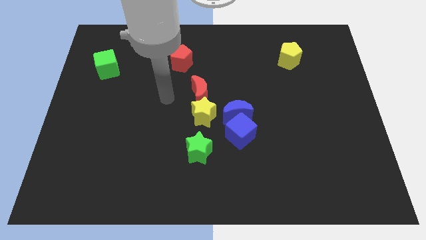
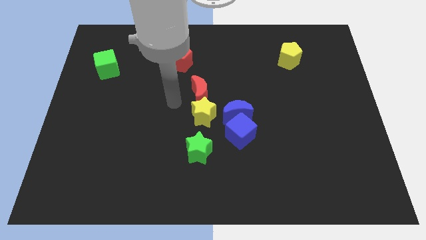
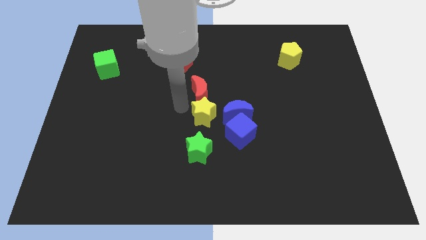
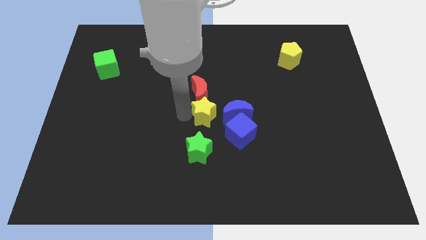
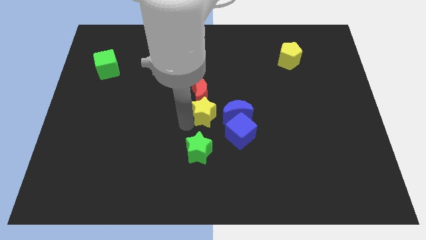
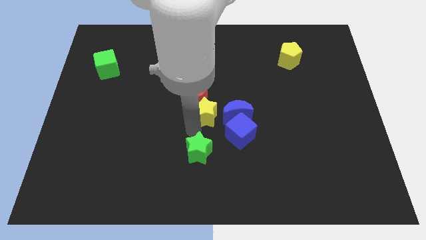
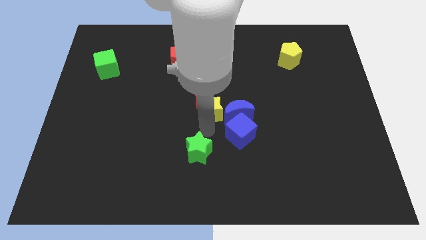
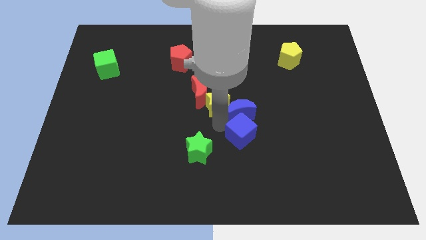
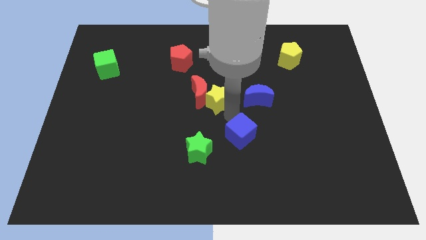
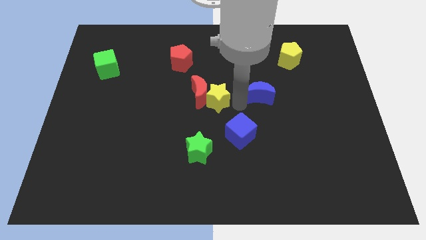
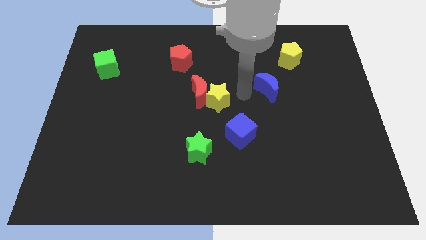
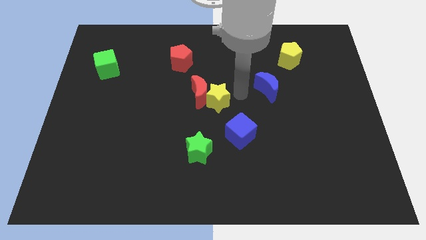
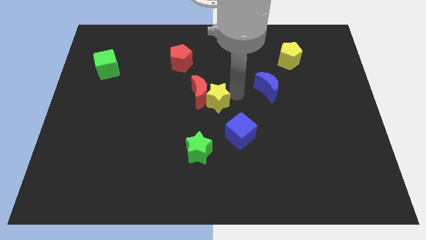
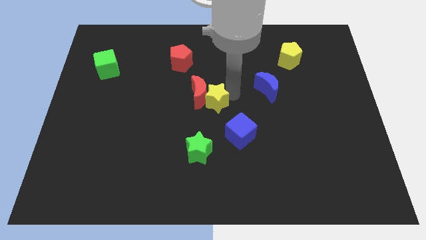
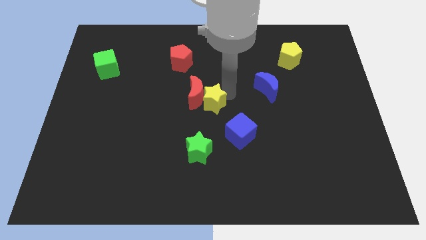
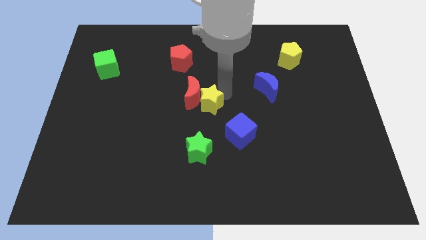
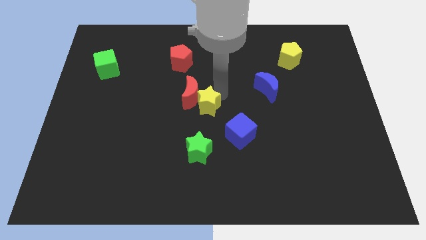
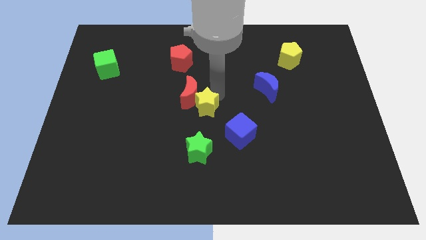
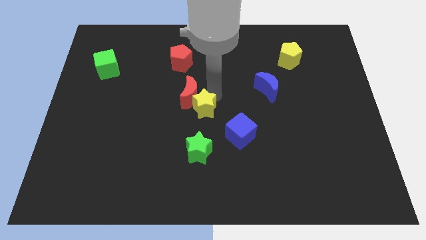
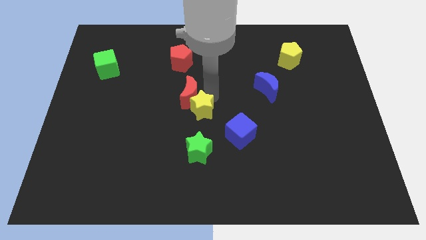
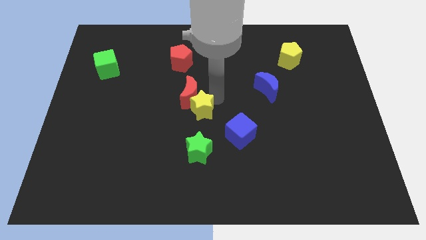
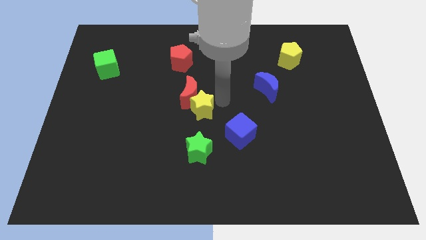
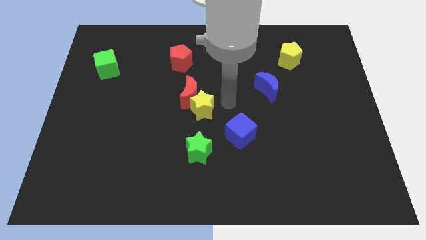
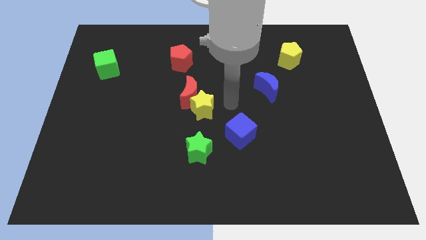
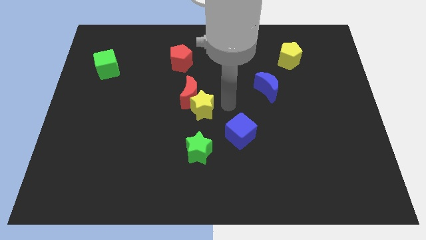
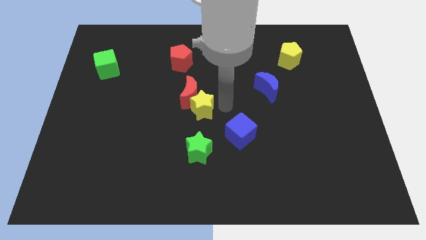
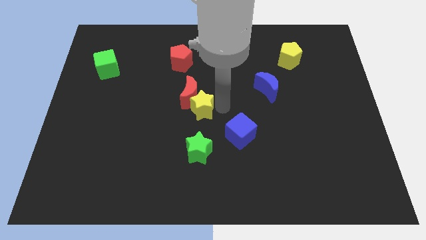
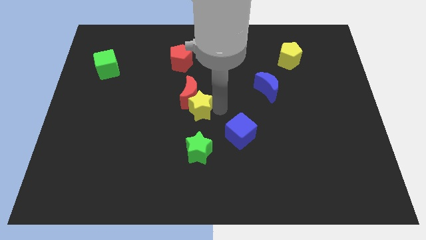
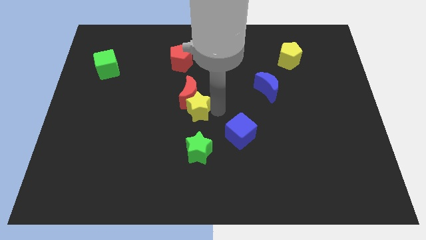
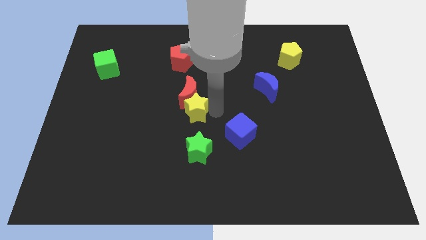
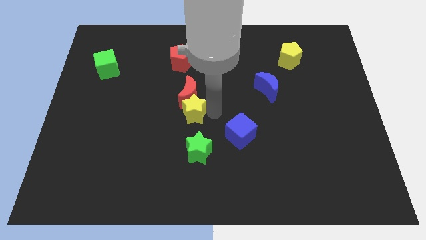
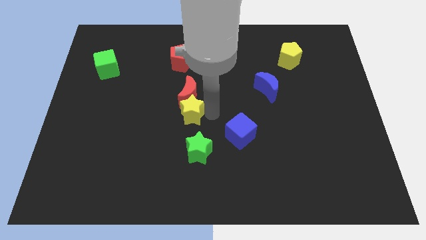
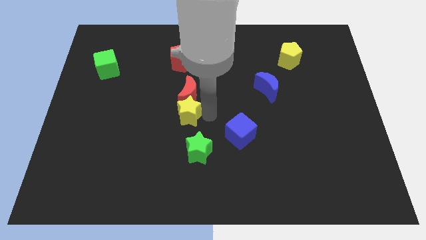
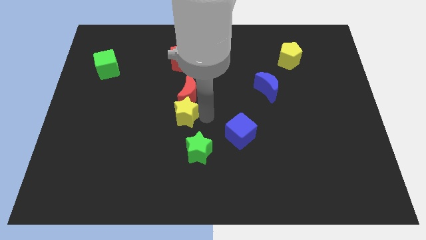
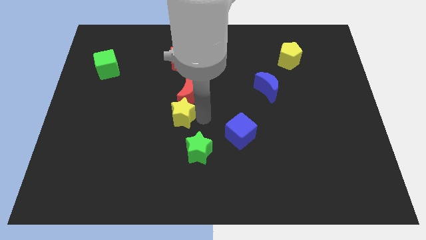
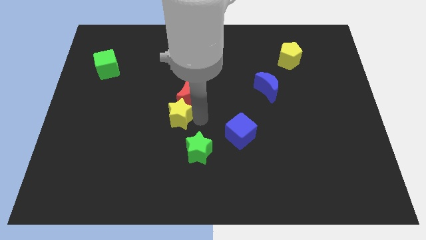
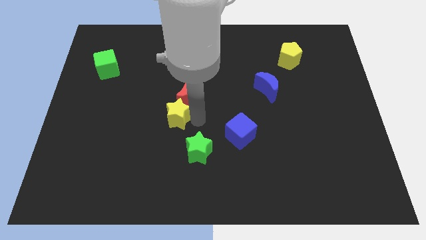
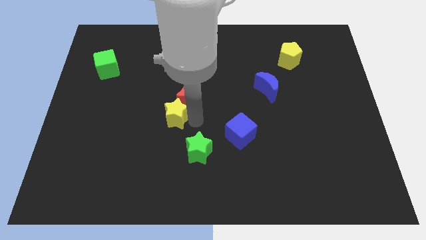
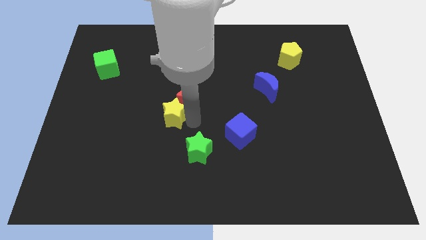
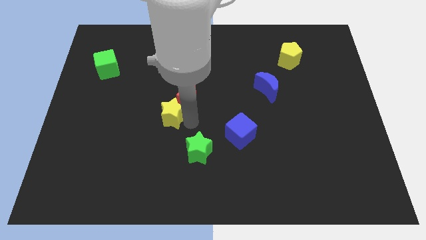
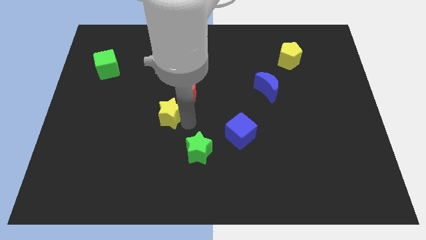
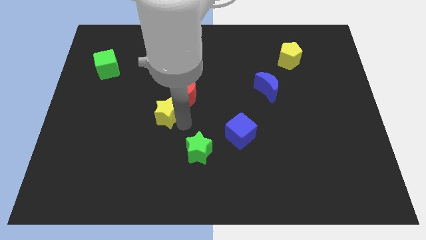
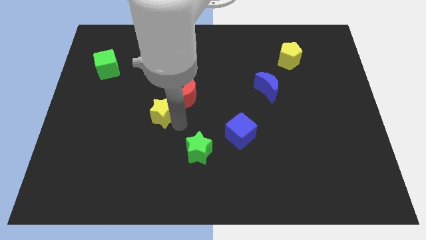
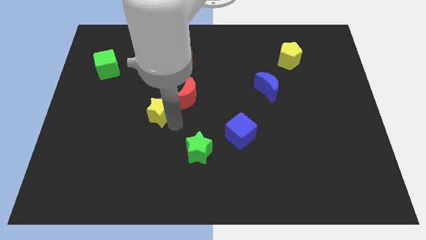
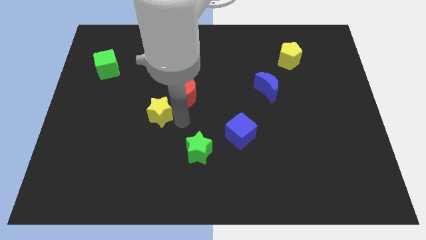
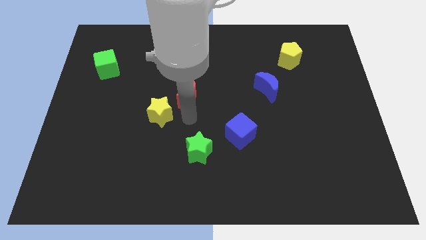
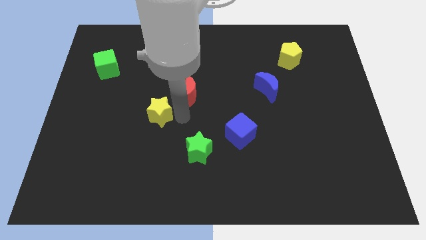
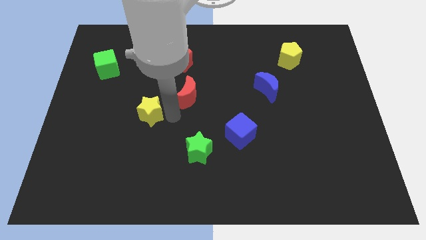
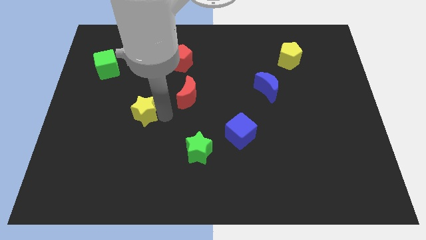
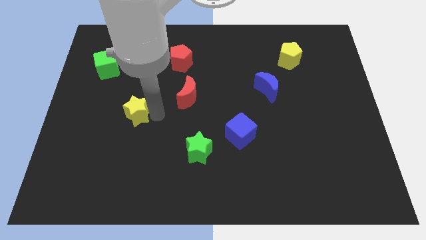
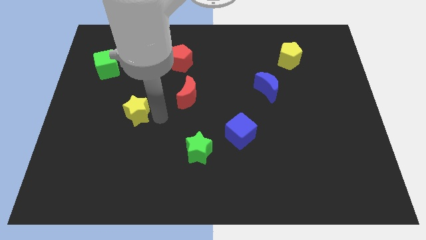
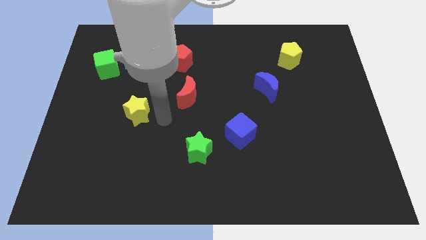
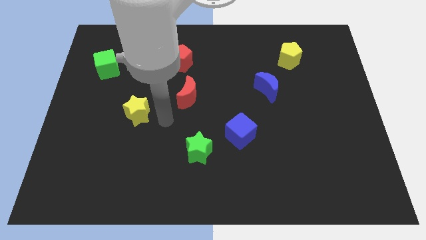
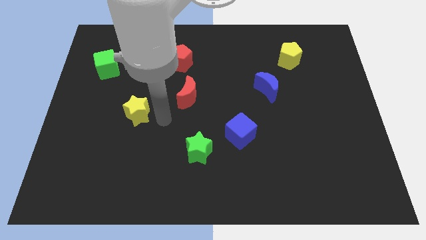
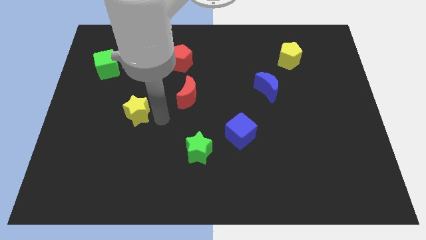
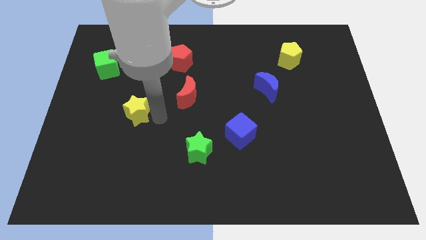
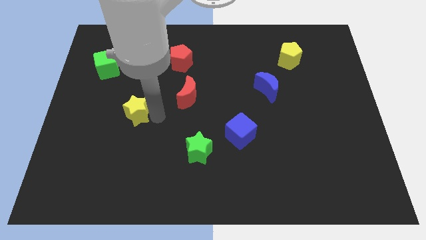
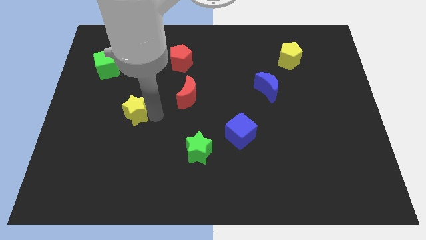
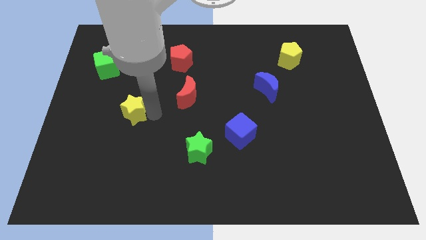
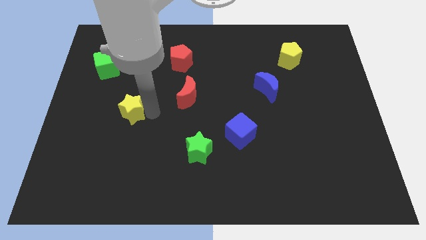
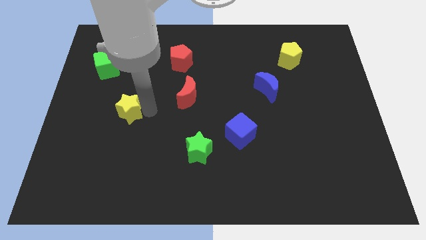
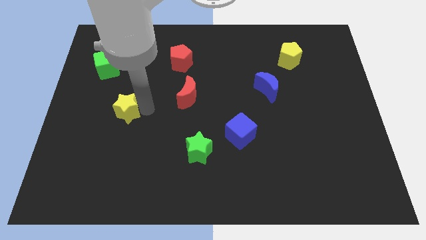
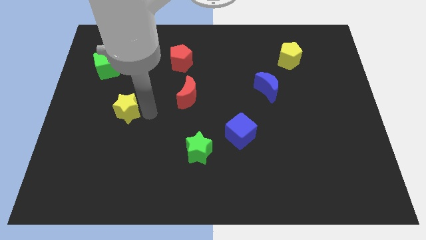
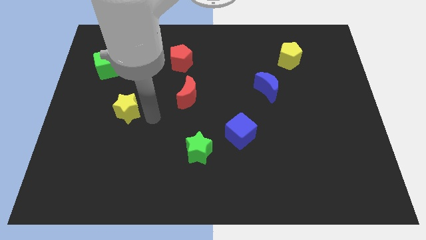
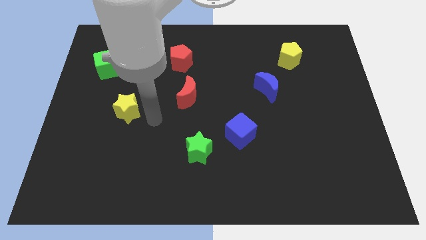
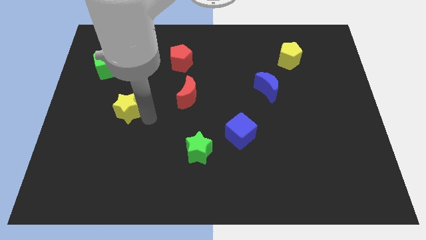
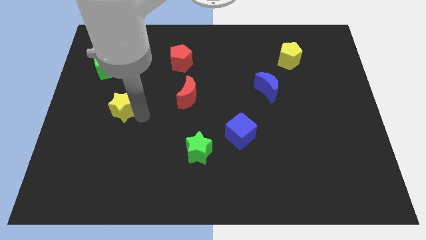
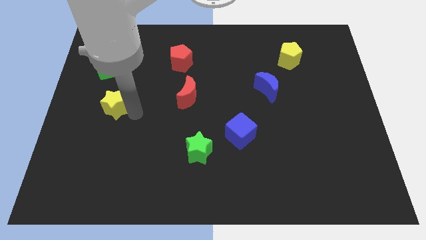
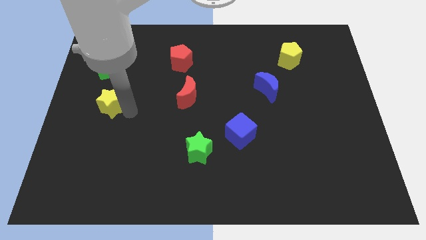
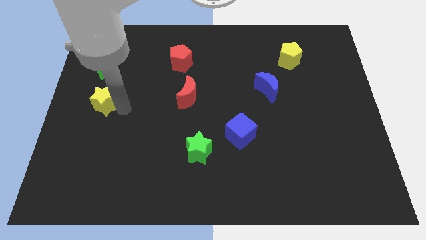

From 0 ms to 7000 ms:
slide the yellow star to the center left
